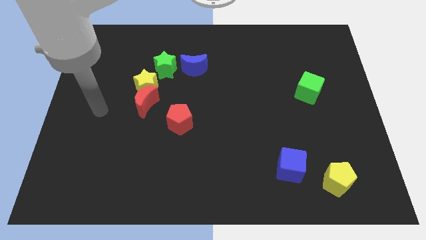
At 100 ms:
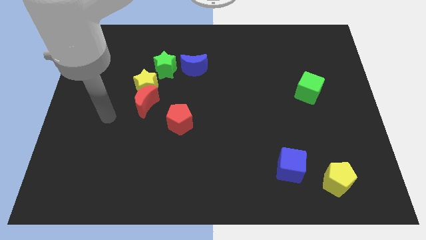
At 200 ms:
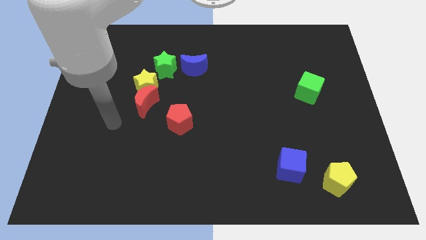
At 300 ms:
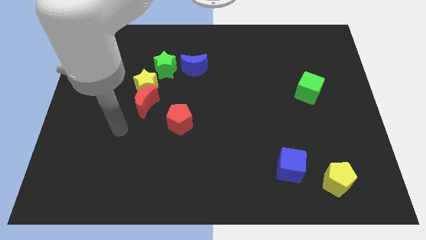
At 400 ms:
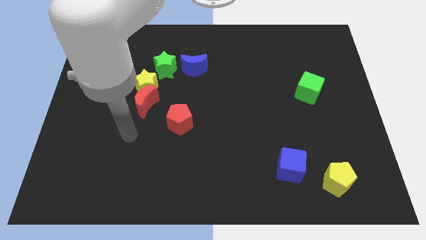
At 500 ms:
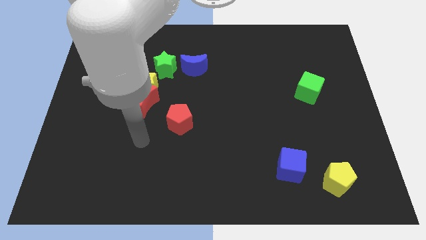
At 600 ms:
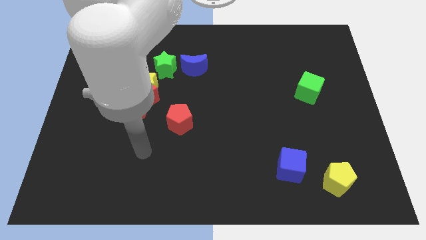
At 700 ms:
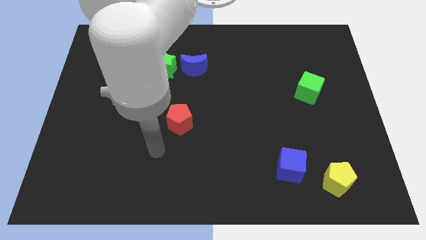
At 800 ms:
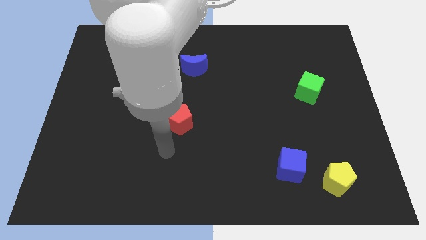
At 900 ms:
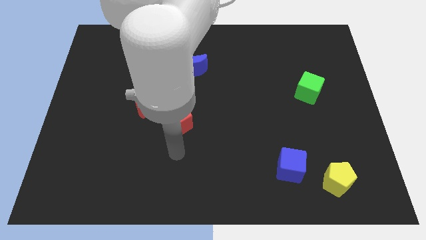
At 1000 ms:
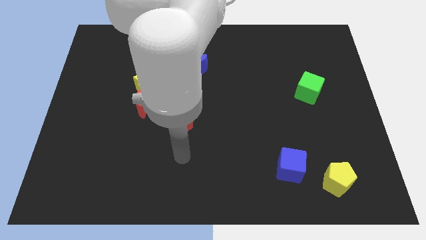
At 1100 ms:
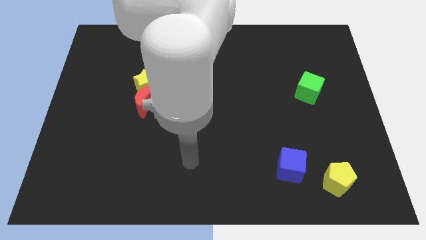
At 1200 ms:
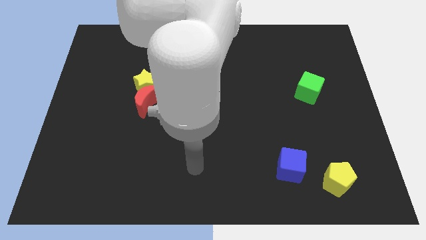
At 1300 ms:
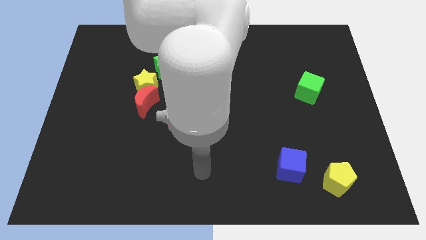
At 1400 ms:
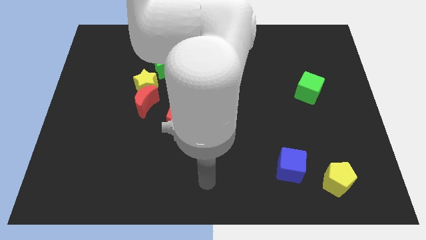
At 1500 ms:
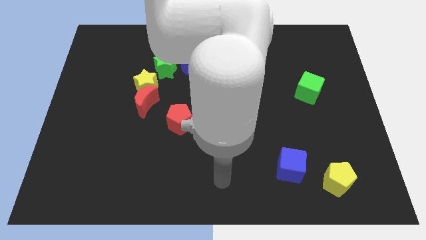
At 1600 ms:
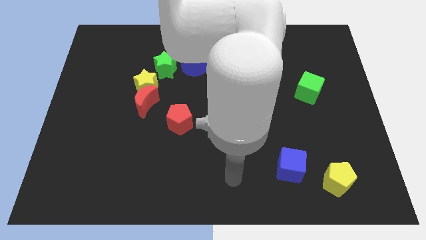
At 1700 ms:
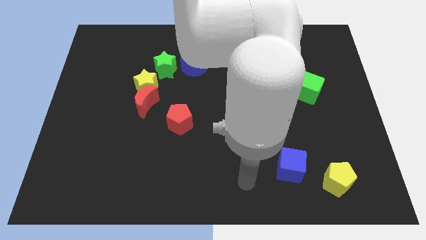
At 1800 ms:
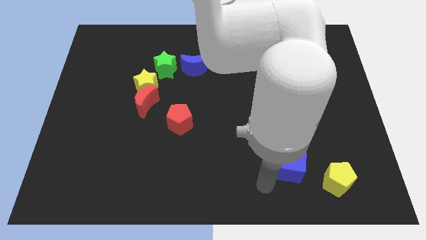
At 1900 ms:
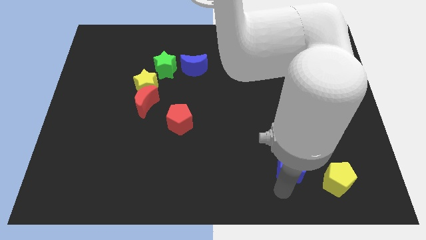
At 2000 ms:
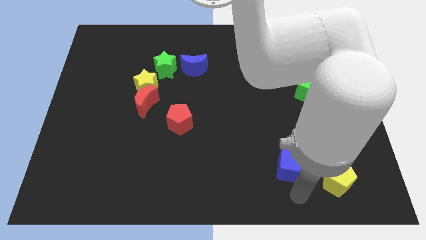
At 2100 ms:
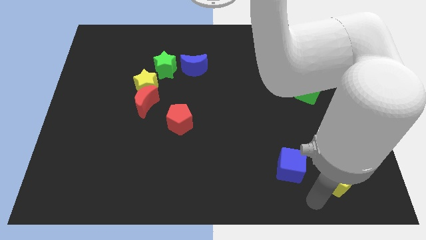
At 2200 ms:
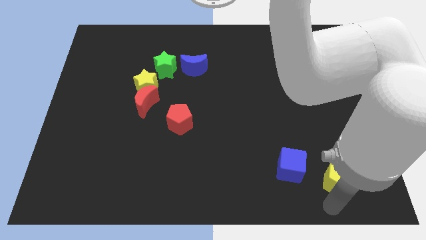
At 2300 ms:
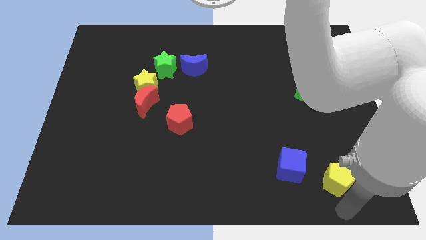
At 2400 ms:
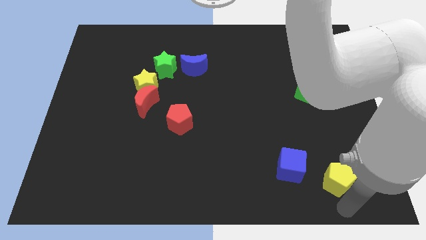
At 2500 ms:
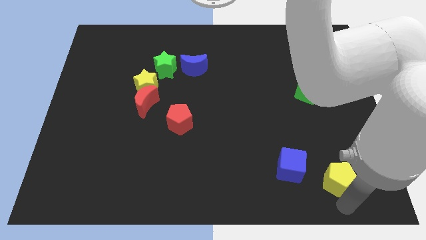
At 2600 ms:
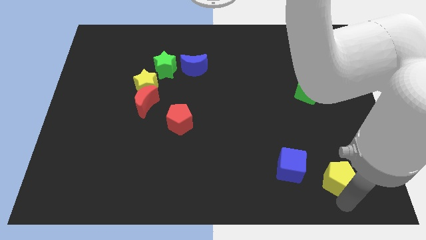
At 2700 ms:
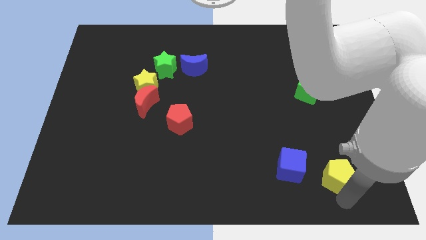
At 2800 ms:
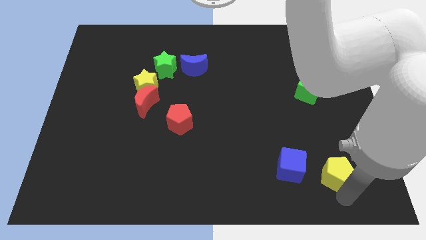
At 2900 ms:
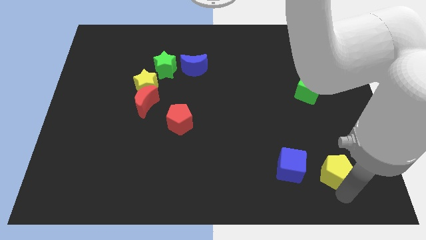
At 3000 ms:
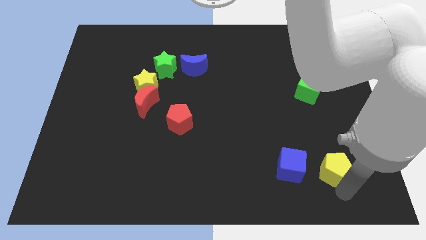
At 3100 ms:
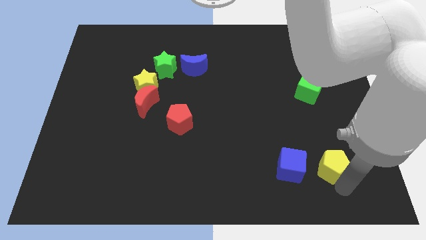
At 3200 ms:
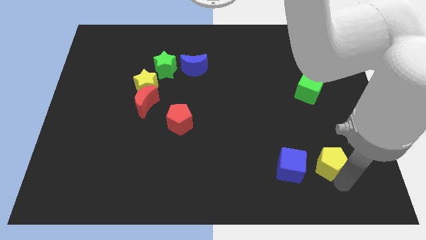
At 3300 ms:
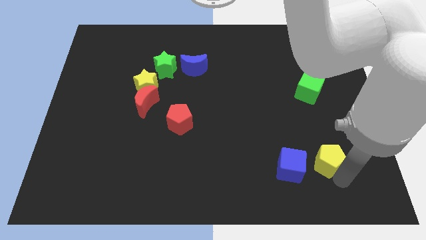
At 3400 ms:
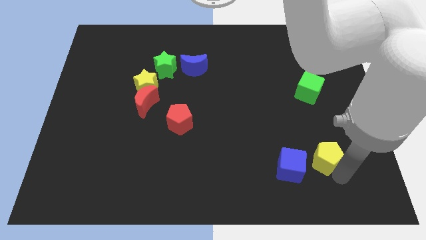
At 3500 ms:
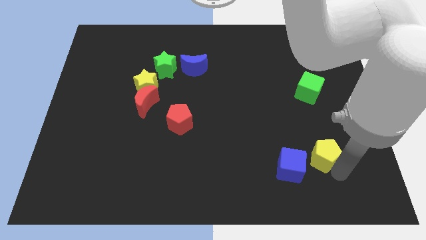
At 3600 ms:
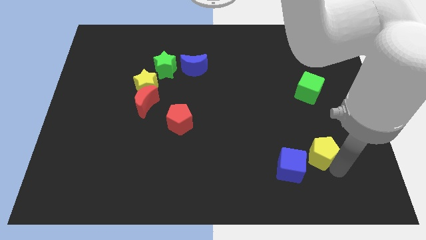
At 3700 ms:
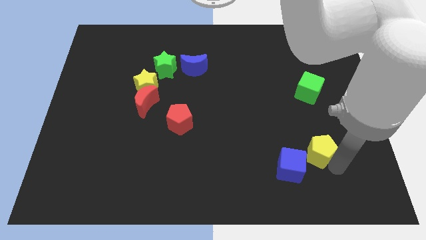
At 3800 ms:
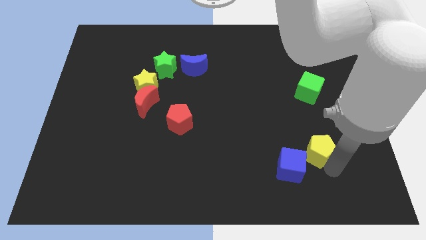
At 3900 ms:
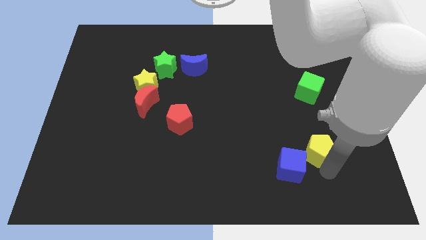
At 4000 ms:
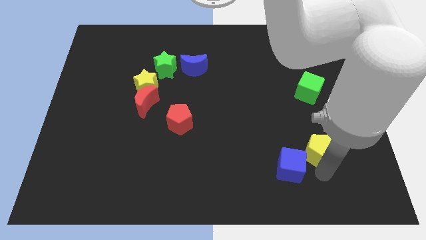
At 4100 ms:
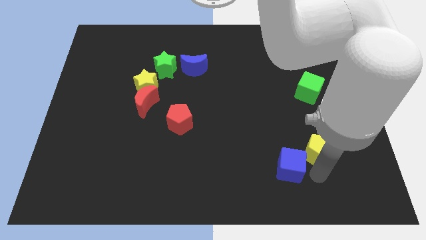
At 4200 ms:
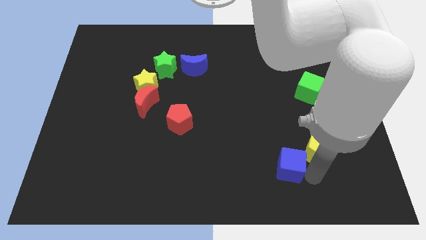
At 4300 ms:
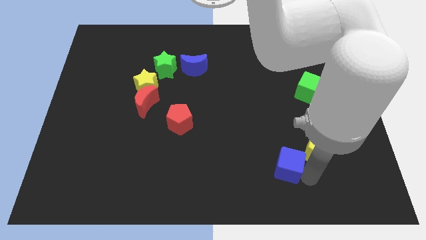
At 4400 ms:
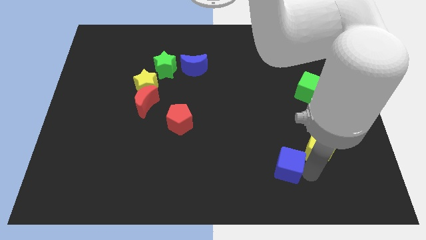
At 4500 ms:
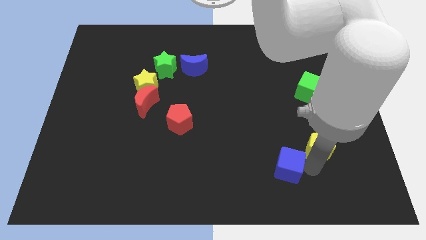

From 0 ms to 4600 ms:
slightly move the yellow pentagon upwards

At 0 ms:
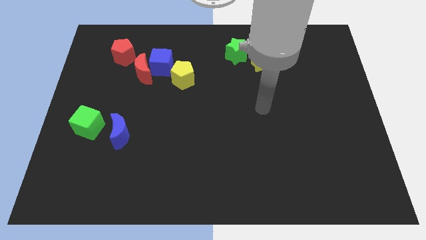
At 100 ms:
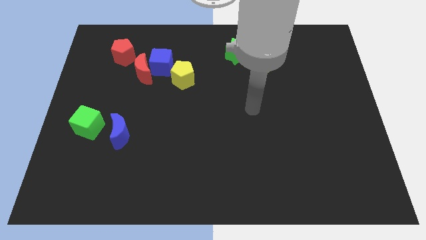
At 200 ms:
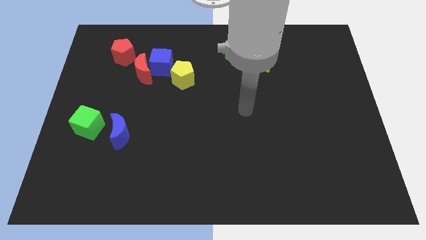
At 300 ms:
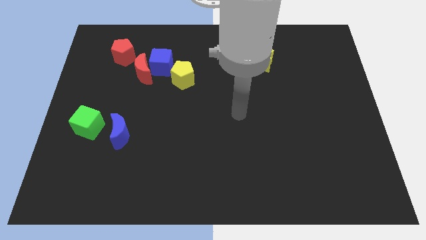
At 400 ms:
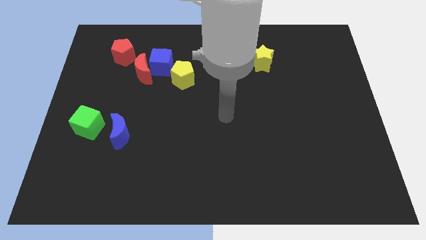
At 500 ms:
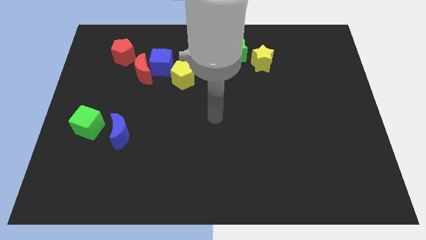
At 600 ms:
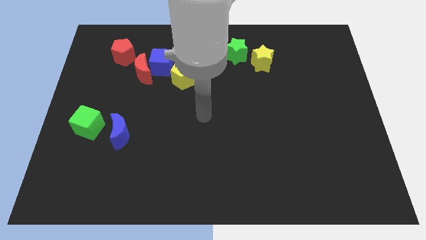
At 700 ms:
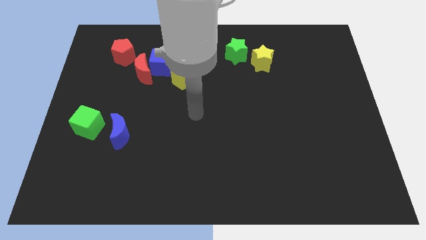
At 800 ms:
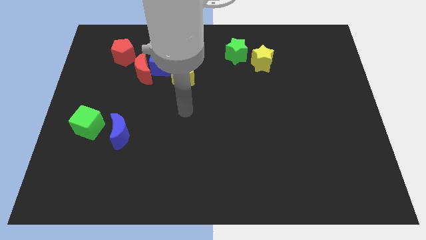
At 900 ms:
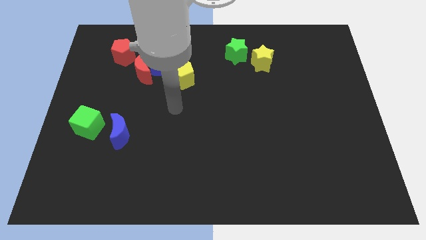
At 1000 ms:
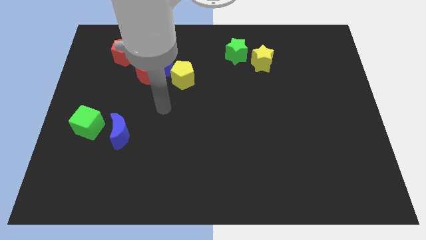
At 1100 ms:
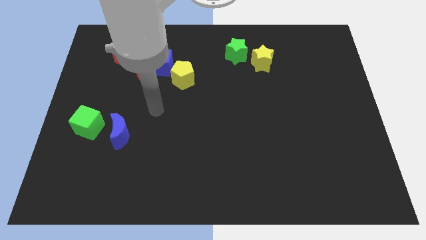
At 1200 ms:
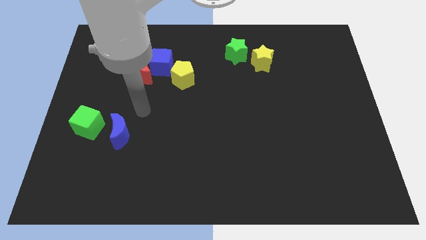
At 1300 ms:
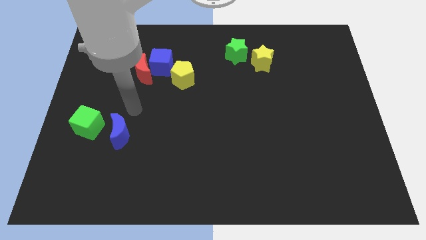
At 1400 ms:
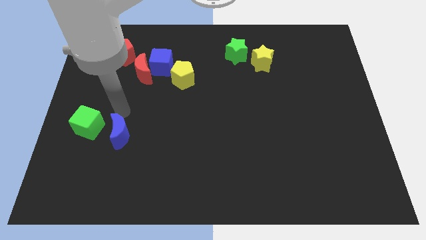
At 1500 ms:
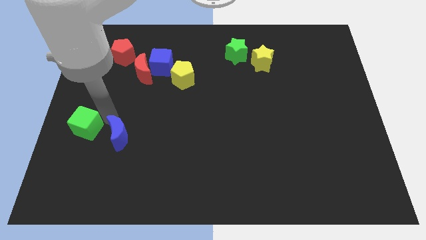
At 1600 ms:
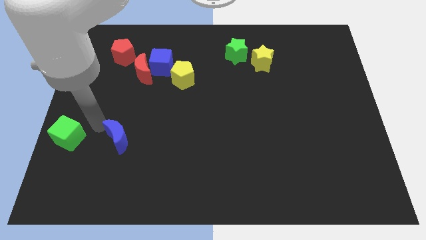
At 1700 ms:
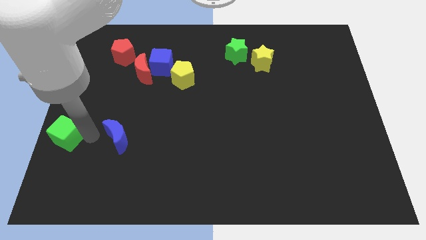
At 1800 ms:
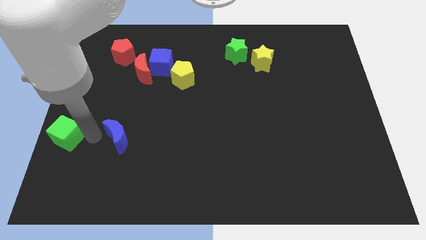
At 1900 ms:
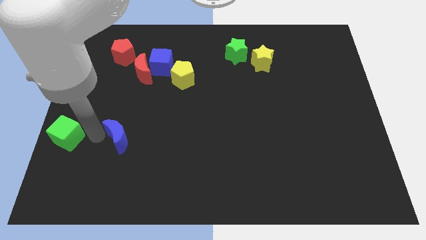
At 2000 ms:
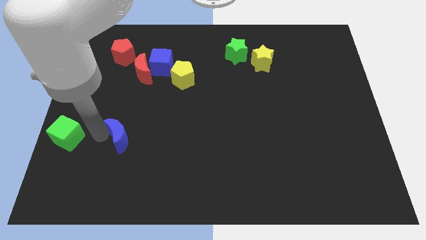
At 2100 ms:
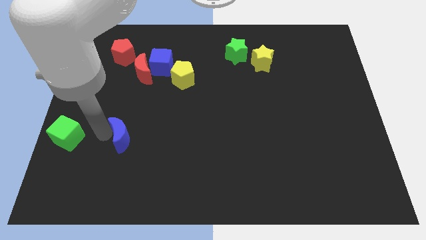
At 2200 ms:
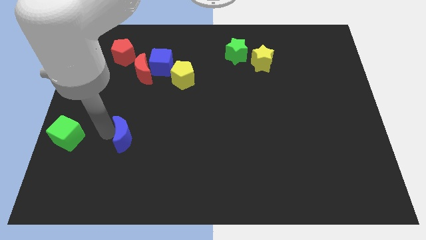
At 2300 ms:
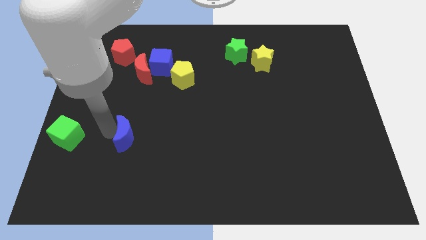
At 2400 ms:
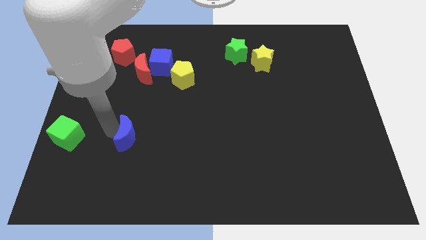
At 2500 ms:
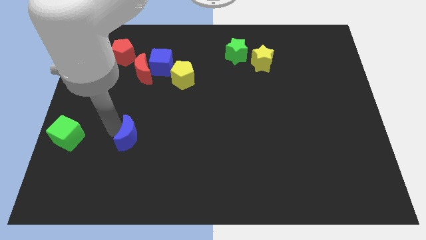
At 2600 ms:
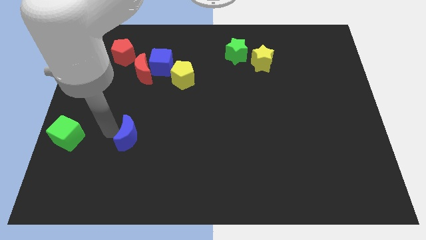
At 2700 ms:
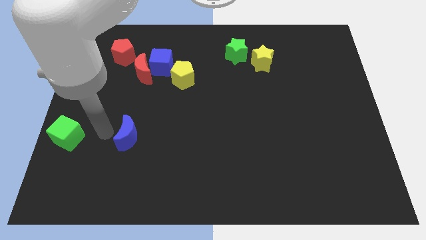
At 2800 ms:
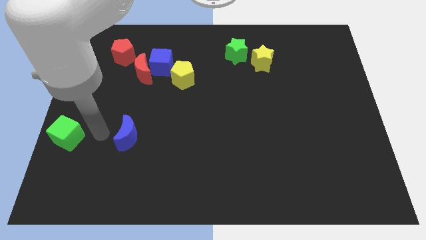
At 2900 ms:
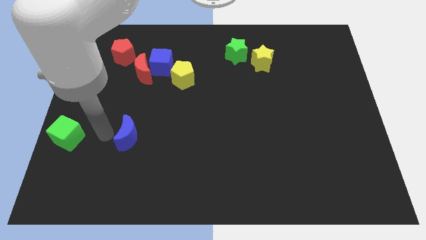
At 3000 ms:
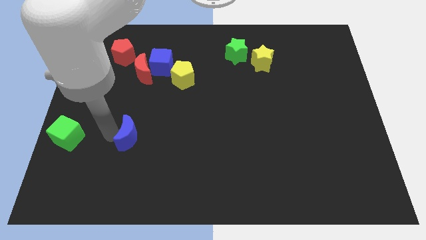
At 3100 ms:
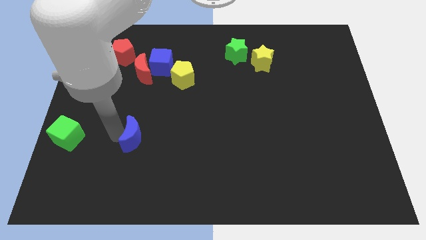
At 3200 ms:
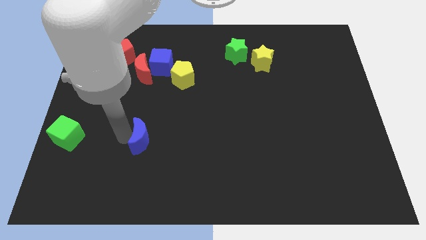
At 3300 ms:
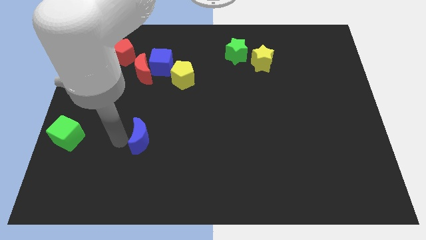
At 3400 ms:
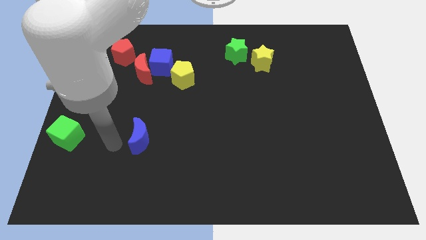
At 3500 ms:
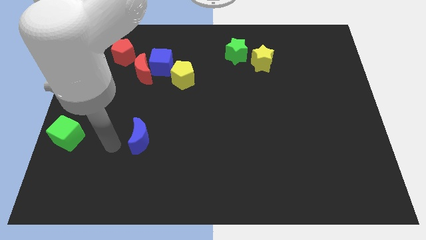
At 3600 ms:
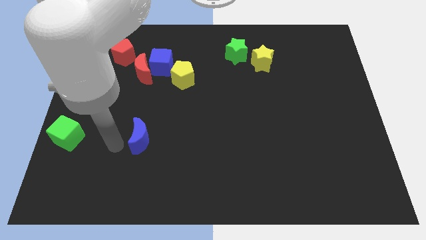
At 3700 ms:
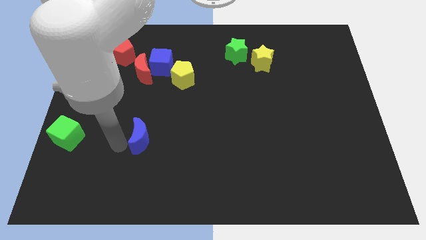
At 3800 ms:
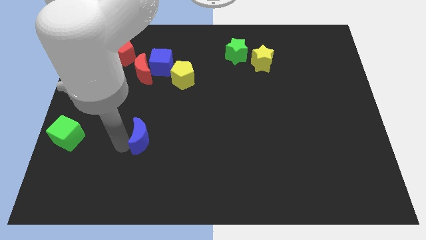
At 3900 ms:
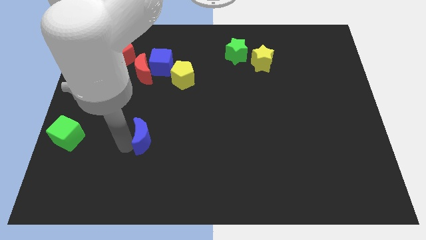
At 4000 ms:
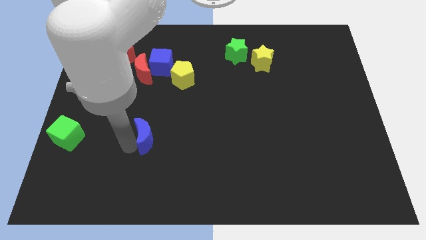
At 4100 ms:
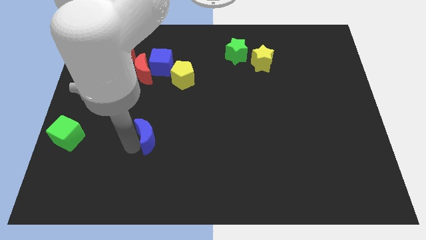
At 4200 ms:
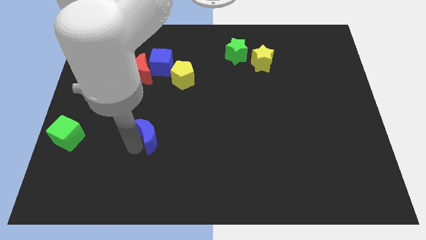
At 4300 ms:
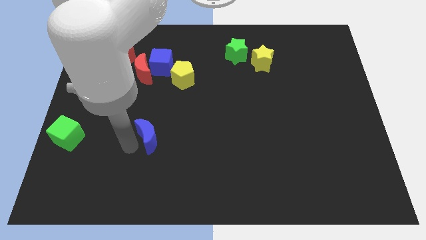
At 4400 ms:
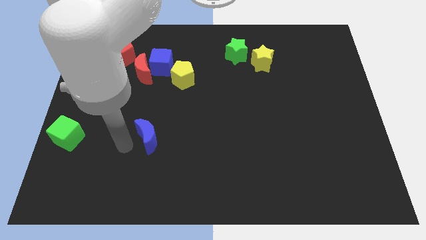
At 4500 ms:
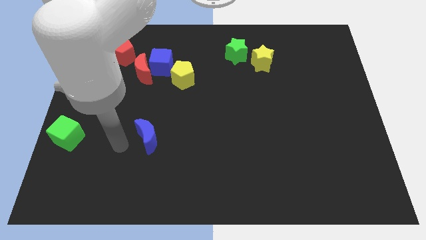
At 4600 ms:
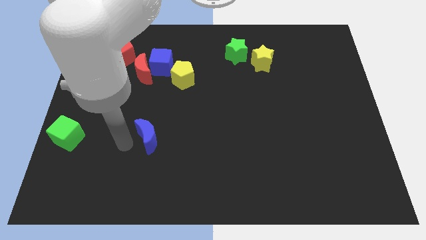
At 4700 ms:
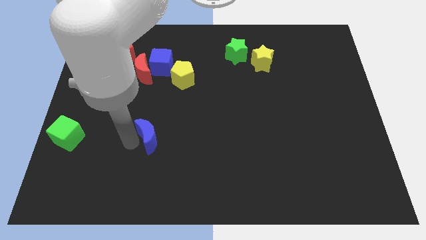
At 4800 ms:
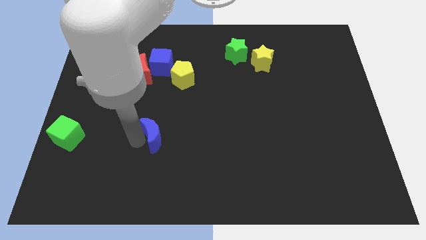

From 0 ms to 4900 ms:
move the blue moon a little to the right
